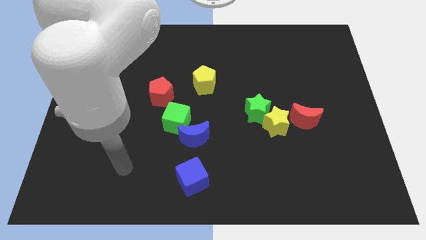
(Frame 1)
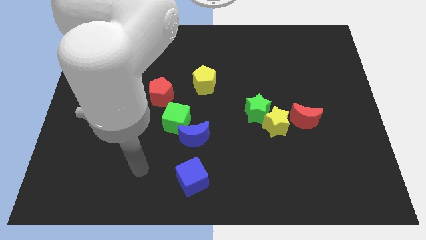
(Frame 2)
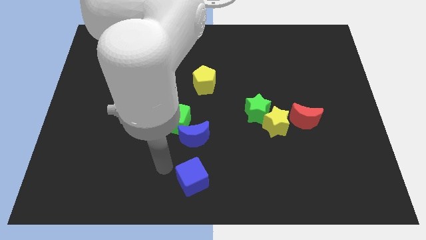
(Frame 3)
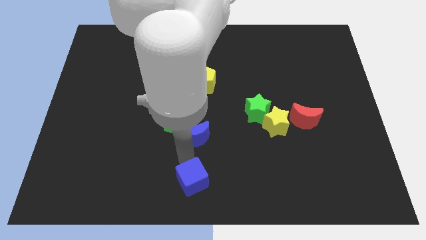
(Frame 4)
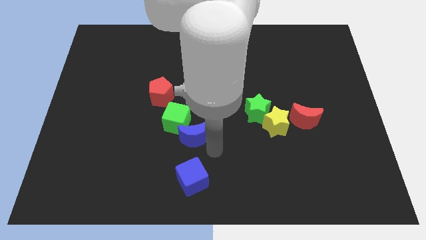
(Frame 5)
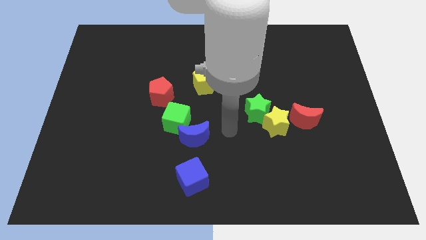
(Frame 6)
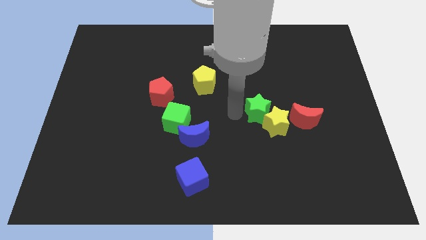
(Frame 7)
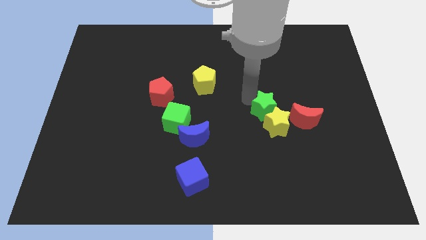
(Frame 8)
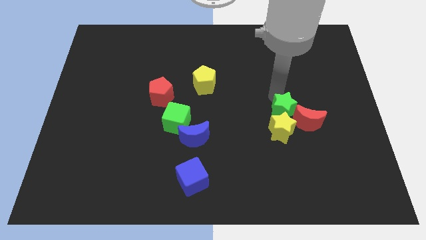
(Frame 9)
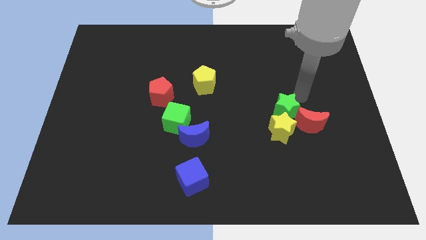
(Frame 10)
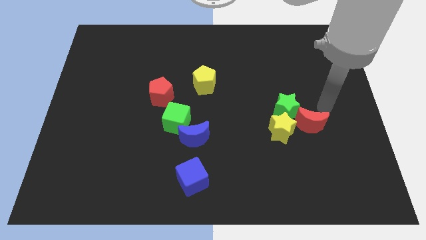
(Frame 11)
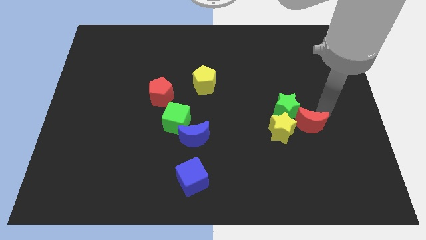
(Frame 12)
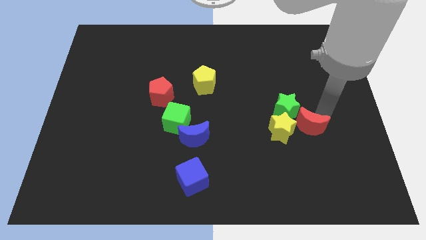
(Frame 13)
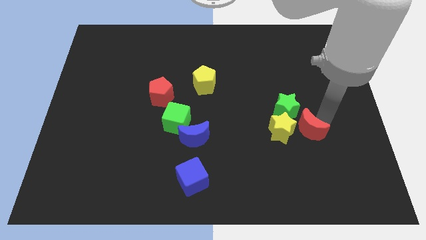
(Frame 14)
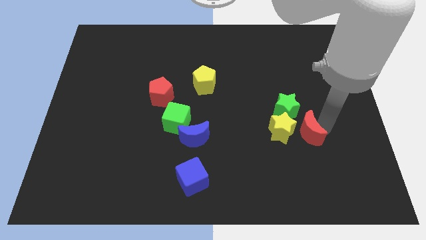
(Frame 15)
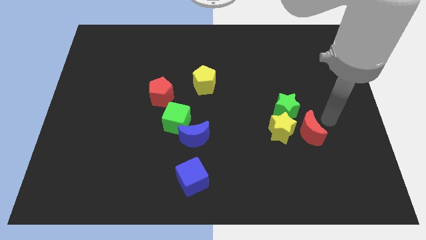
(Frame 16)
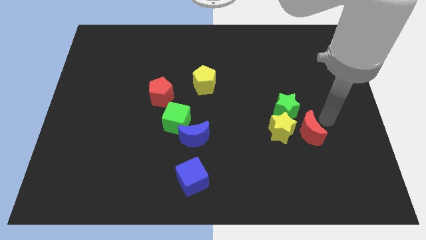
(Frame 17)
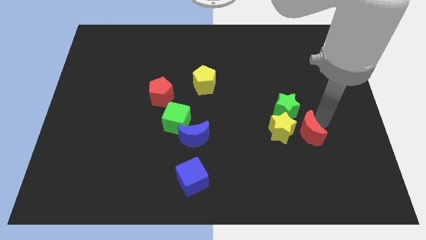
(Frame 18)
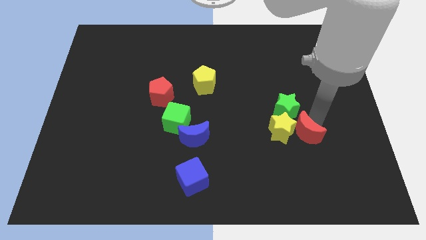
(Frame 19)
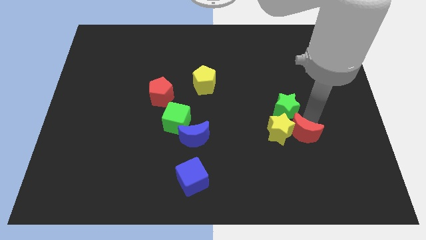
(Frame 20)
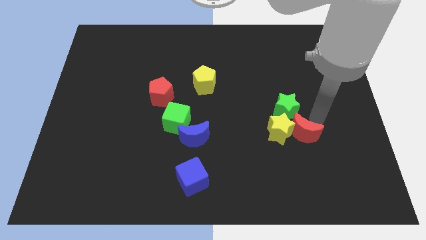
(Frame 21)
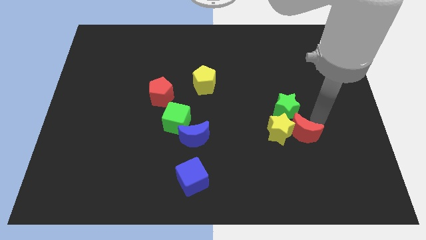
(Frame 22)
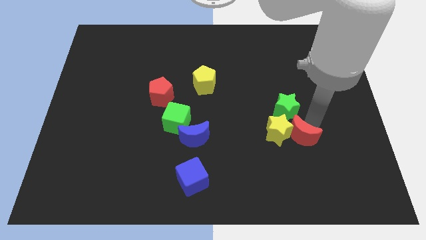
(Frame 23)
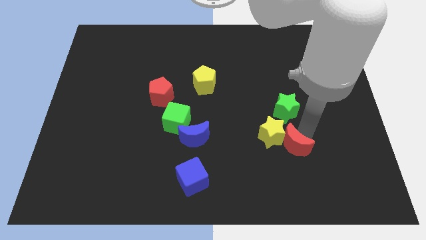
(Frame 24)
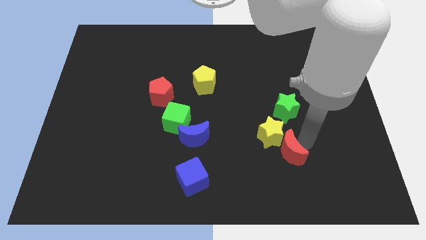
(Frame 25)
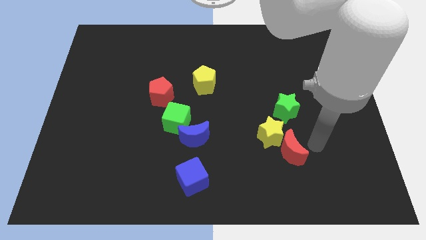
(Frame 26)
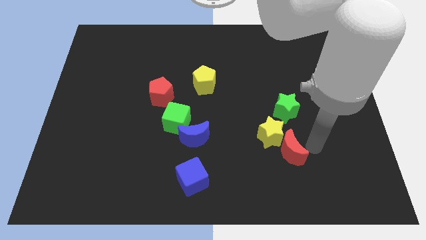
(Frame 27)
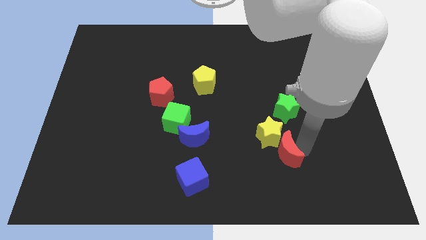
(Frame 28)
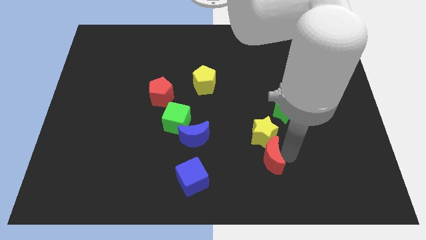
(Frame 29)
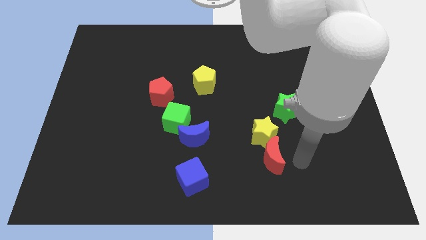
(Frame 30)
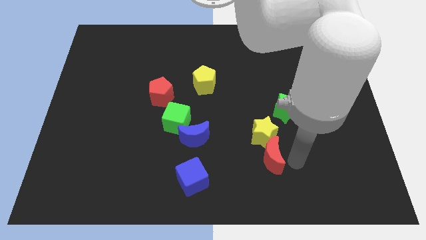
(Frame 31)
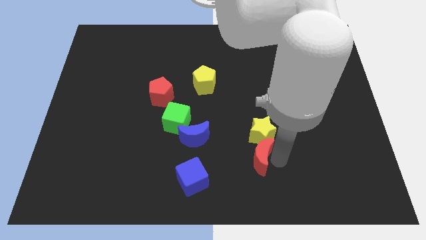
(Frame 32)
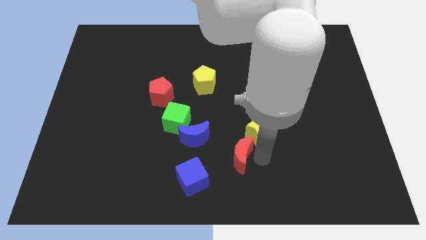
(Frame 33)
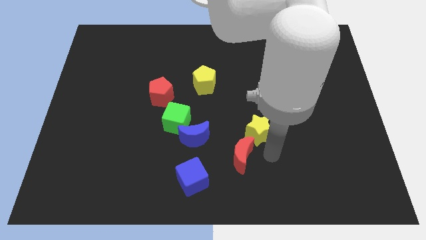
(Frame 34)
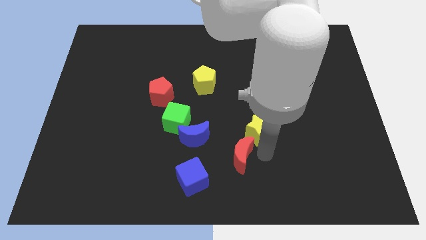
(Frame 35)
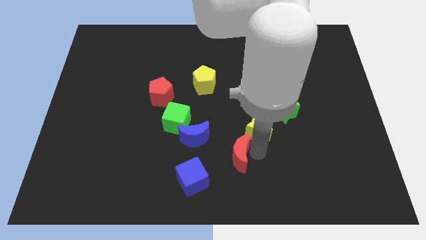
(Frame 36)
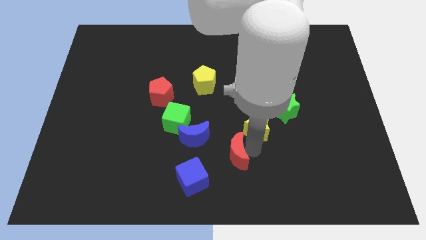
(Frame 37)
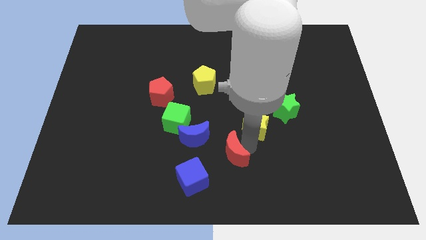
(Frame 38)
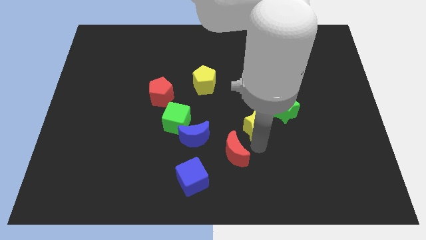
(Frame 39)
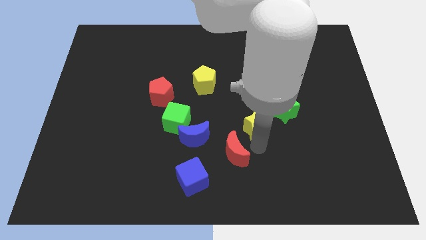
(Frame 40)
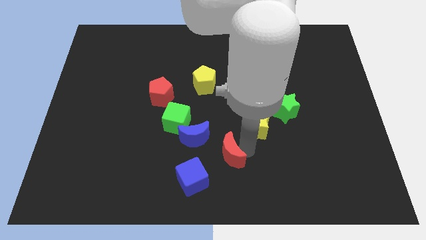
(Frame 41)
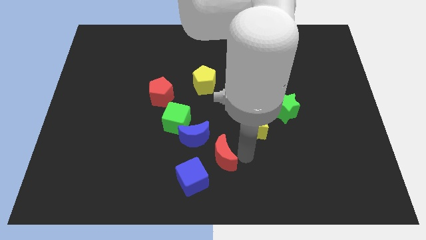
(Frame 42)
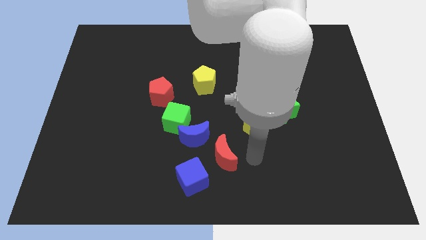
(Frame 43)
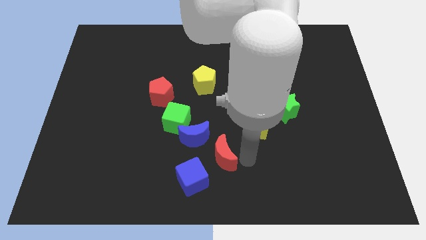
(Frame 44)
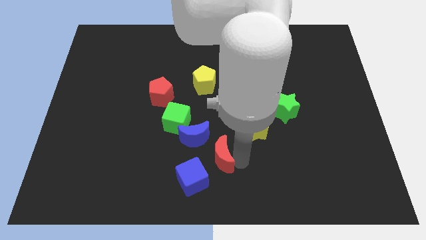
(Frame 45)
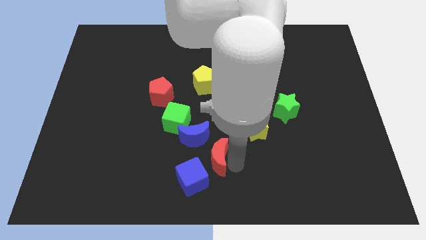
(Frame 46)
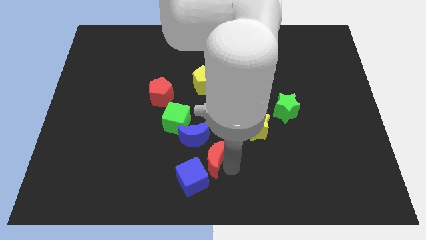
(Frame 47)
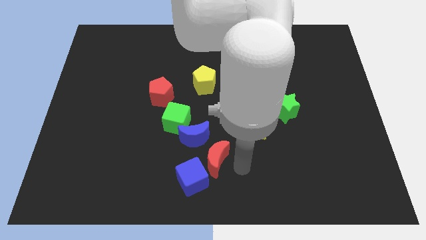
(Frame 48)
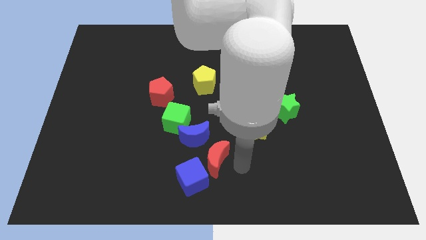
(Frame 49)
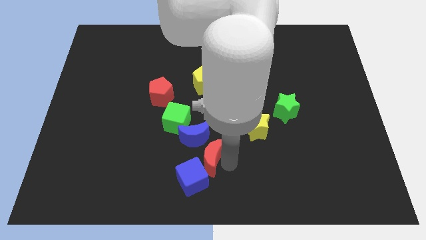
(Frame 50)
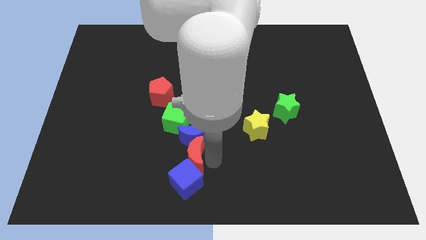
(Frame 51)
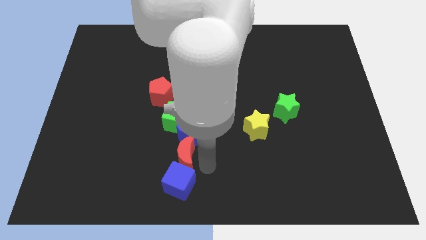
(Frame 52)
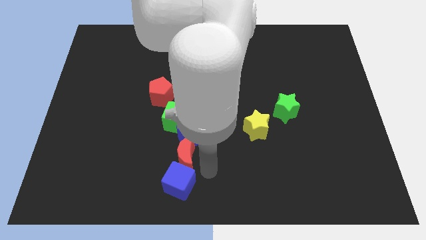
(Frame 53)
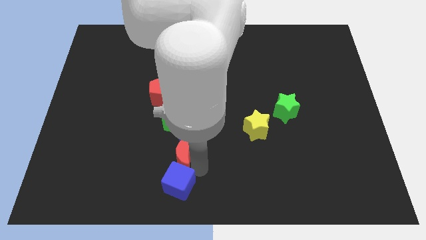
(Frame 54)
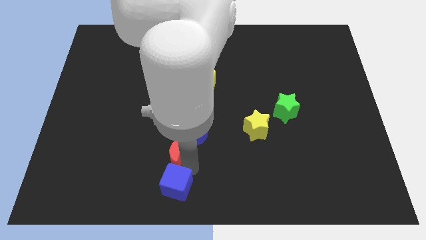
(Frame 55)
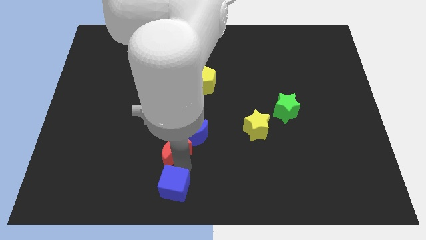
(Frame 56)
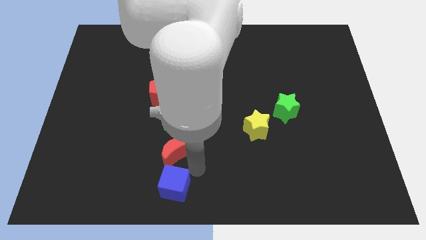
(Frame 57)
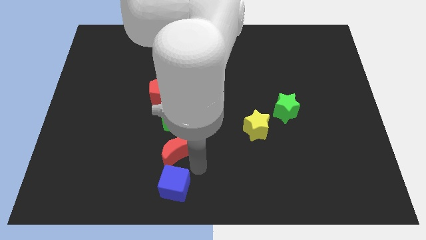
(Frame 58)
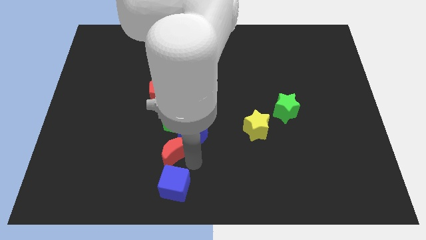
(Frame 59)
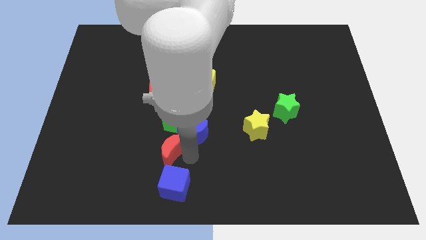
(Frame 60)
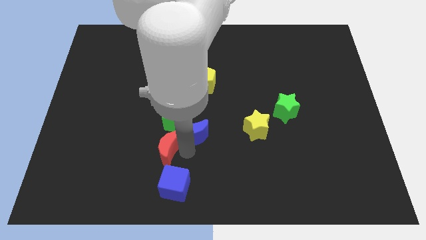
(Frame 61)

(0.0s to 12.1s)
push the red moon diagonally down and to the left of the green cube

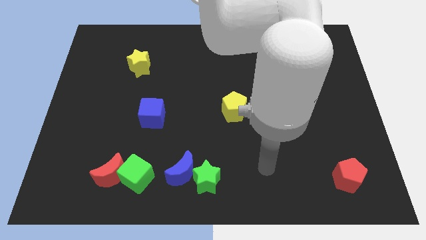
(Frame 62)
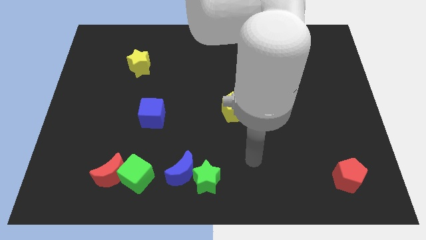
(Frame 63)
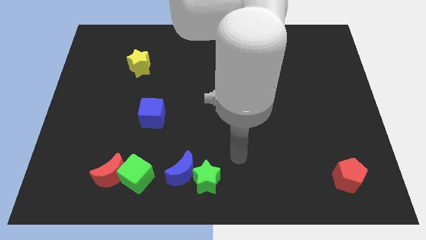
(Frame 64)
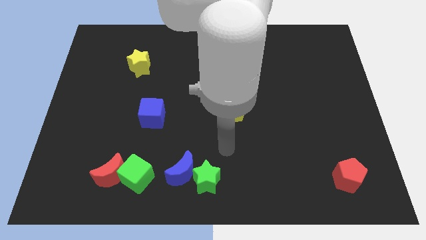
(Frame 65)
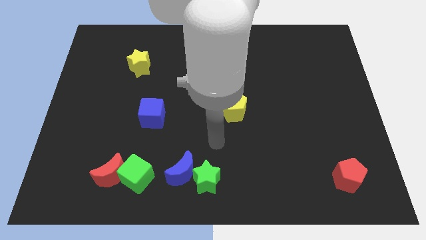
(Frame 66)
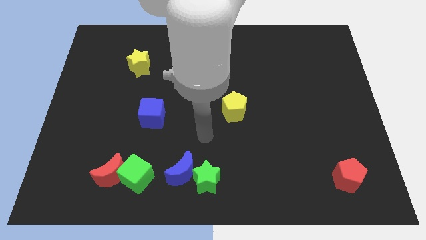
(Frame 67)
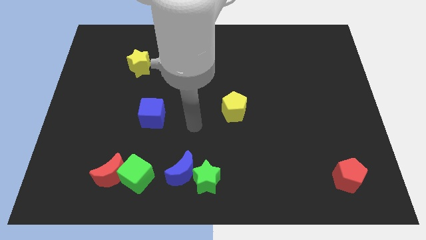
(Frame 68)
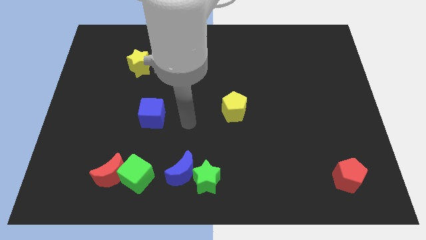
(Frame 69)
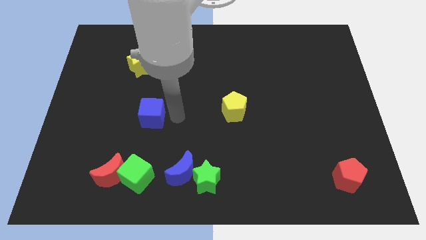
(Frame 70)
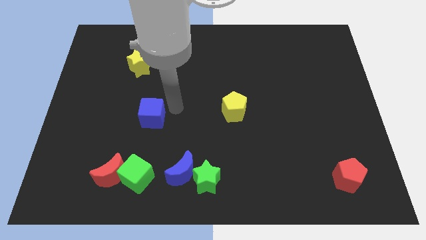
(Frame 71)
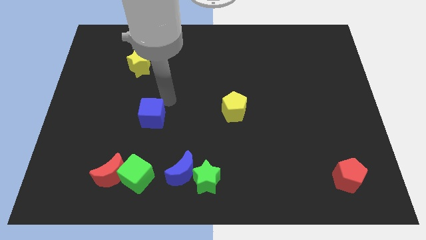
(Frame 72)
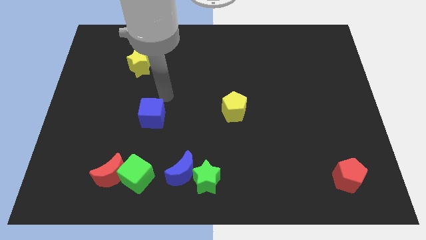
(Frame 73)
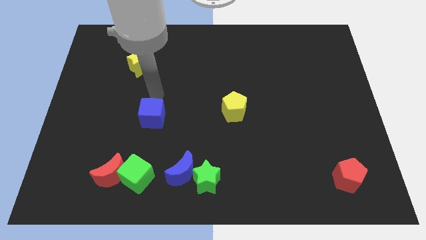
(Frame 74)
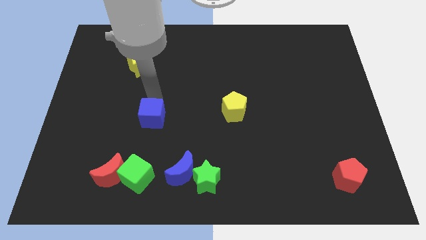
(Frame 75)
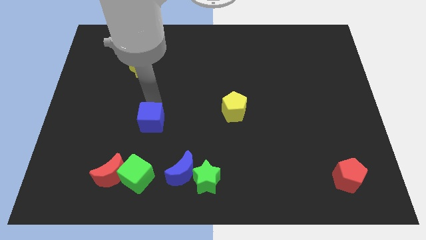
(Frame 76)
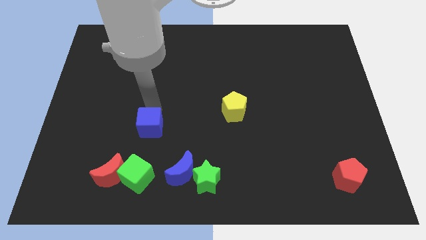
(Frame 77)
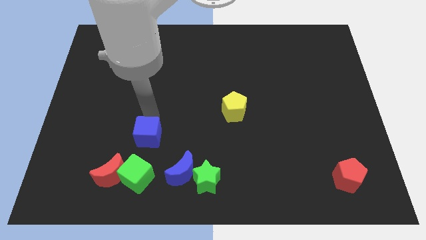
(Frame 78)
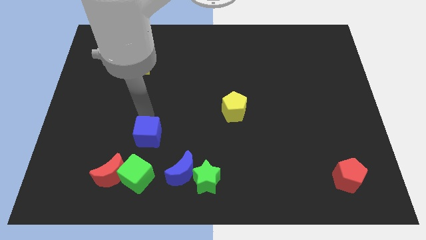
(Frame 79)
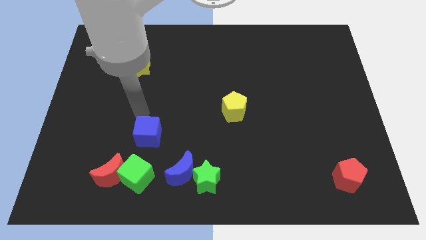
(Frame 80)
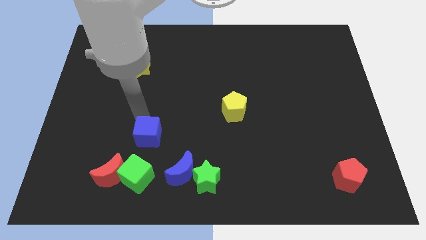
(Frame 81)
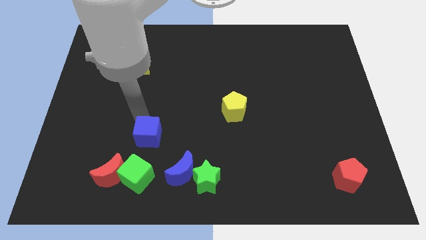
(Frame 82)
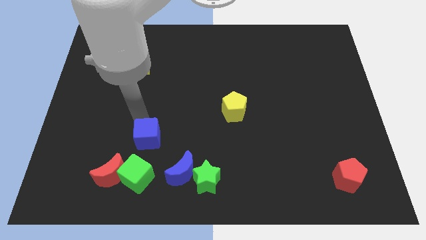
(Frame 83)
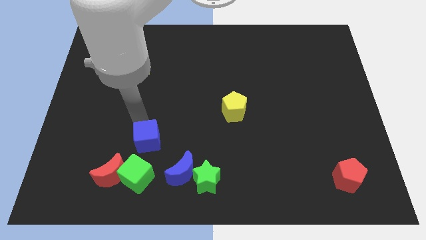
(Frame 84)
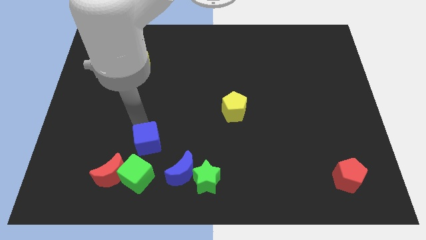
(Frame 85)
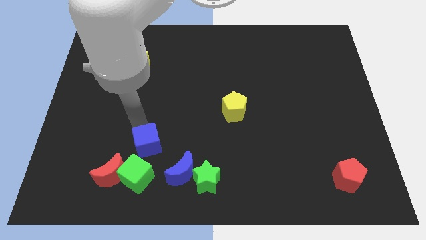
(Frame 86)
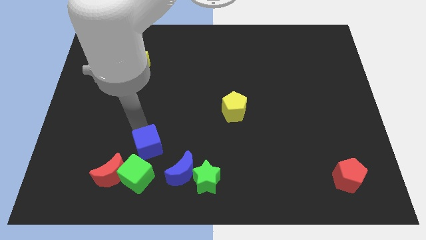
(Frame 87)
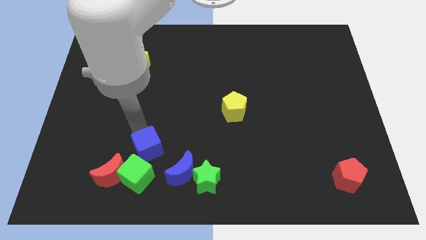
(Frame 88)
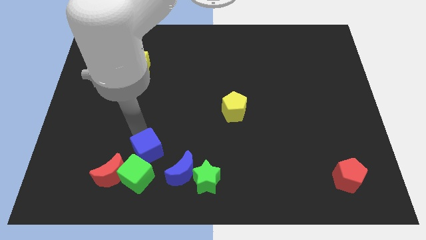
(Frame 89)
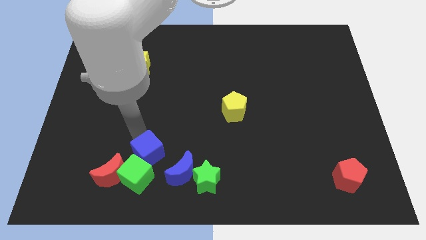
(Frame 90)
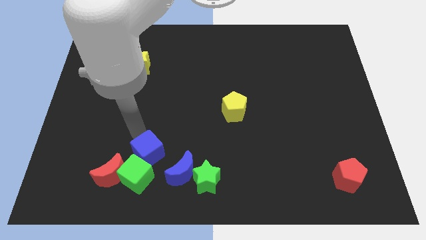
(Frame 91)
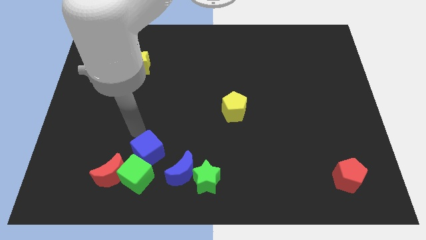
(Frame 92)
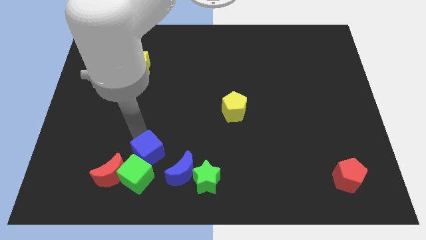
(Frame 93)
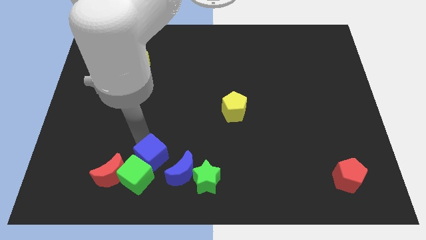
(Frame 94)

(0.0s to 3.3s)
put the blue cube right of the red moon
